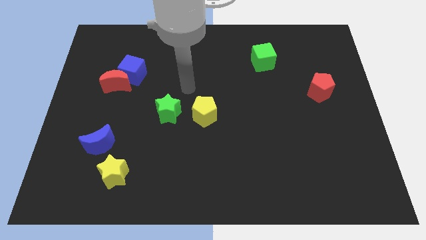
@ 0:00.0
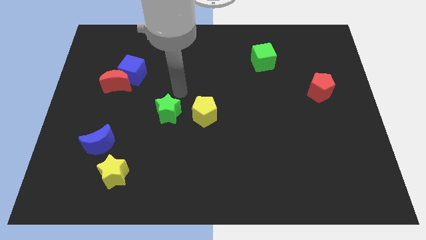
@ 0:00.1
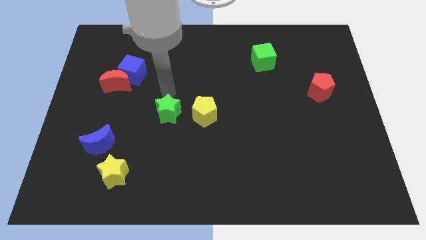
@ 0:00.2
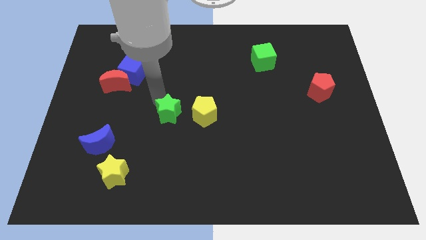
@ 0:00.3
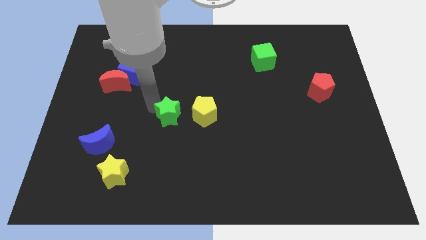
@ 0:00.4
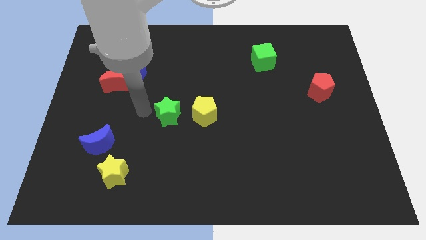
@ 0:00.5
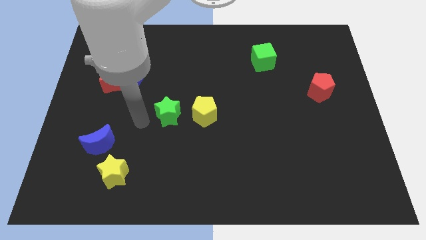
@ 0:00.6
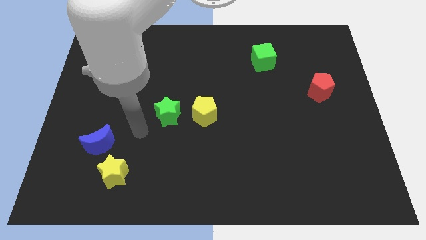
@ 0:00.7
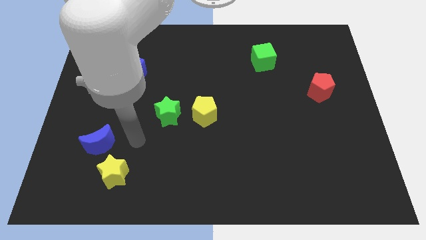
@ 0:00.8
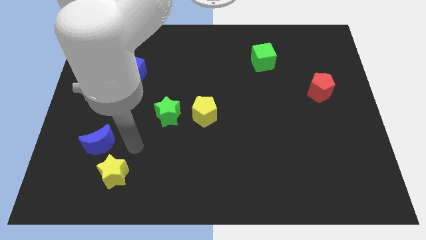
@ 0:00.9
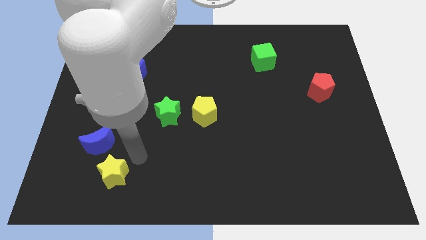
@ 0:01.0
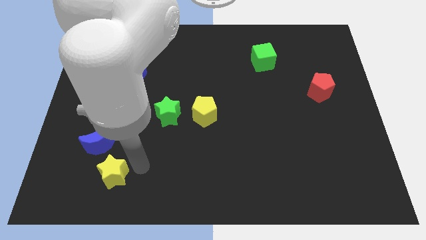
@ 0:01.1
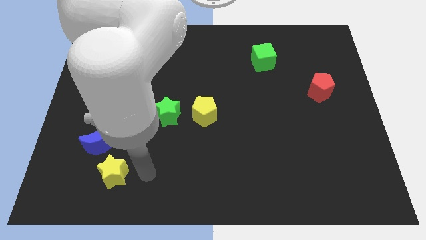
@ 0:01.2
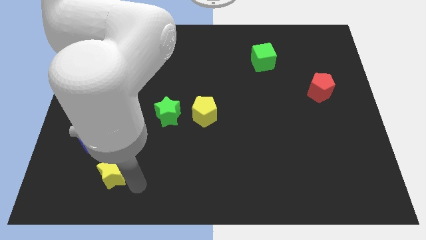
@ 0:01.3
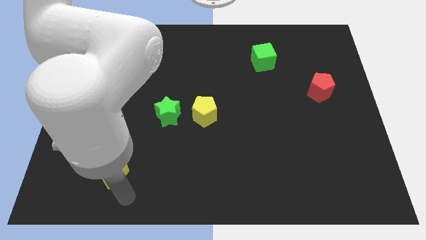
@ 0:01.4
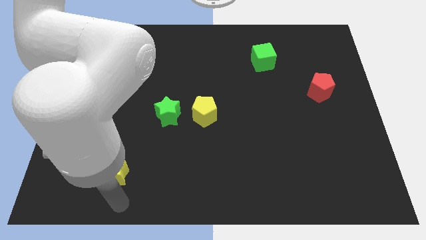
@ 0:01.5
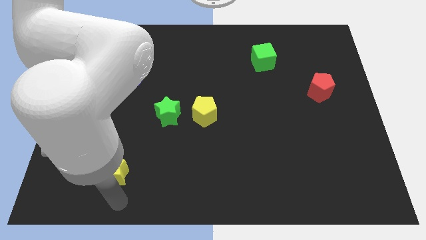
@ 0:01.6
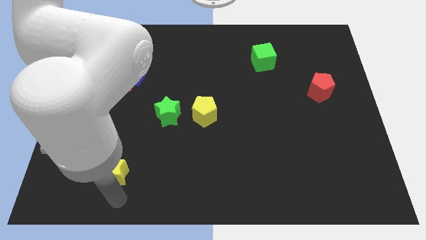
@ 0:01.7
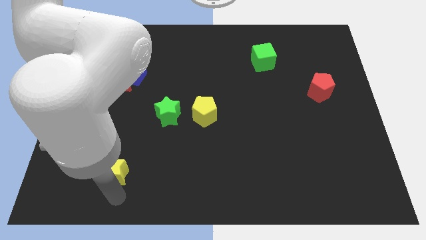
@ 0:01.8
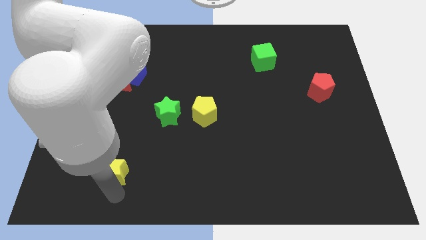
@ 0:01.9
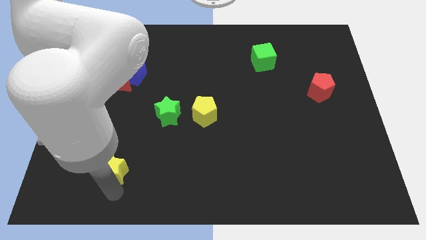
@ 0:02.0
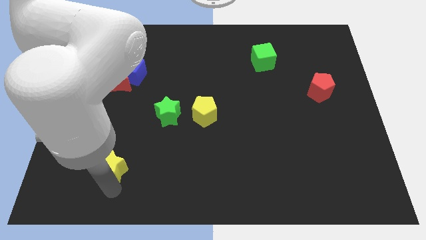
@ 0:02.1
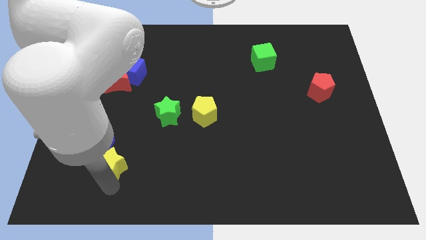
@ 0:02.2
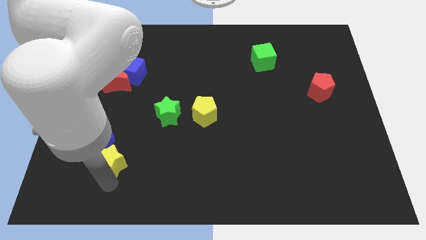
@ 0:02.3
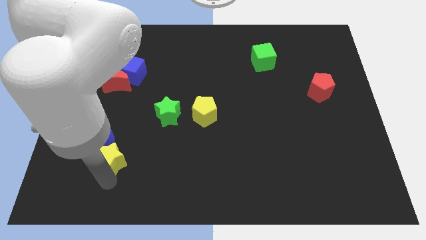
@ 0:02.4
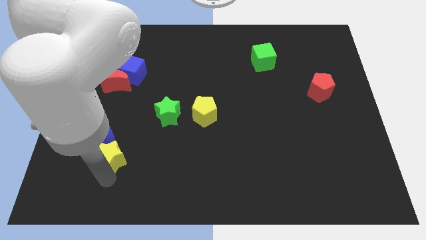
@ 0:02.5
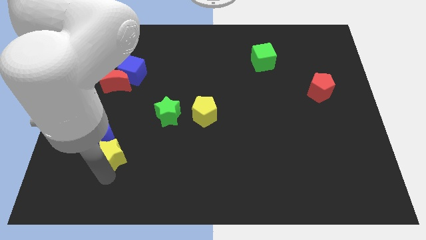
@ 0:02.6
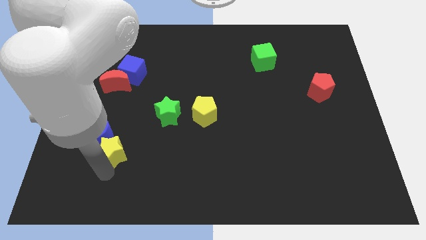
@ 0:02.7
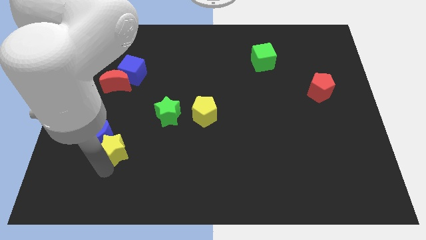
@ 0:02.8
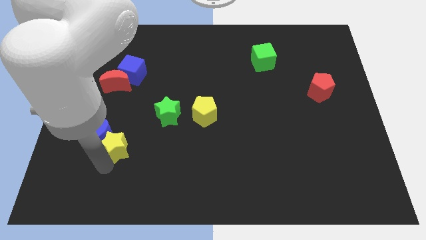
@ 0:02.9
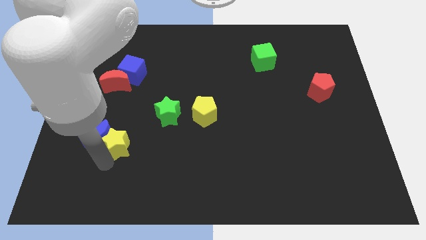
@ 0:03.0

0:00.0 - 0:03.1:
push the yellow star up somewhat

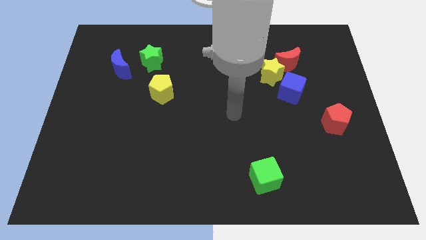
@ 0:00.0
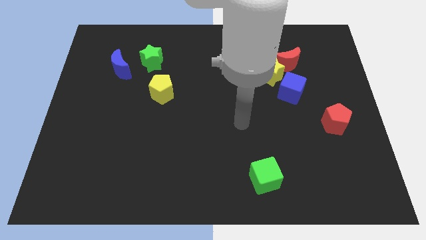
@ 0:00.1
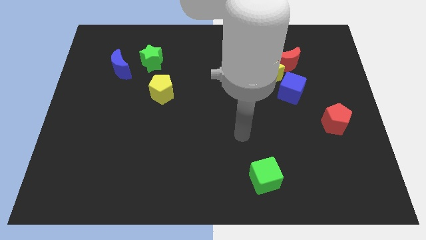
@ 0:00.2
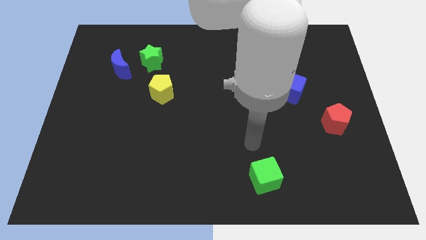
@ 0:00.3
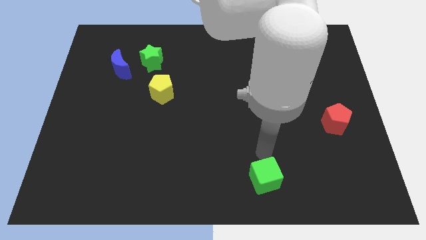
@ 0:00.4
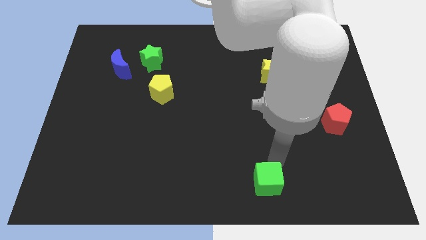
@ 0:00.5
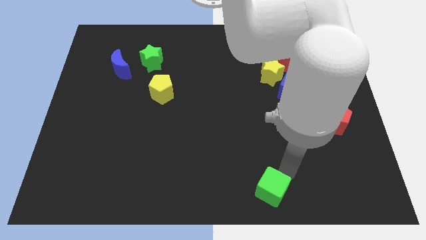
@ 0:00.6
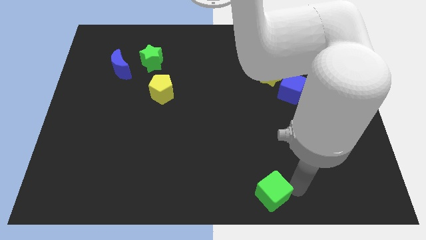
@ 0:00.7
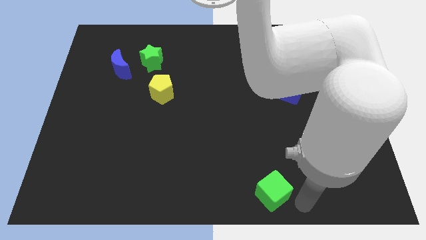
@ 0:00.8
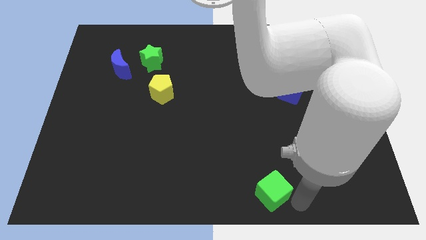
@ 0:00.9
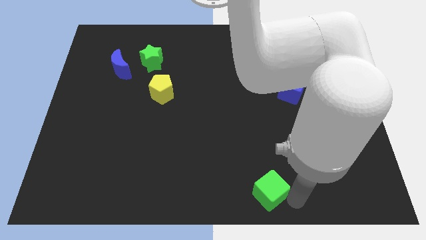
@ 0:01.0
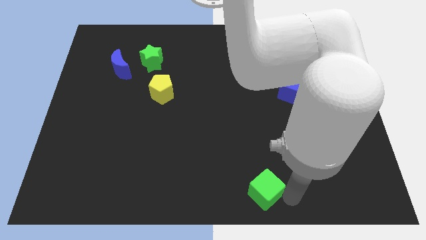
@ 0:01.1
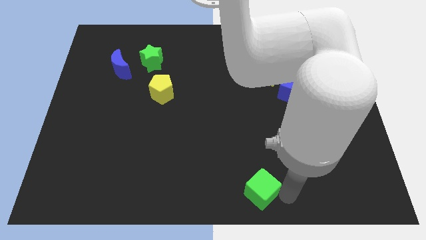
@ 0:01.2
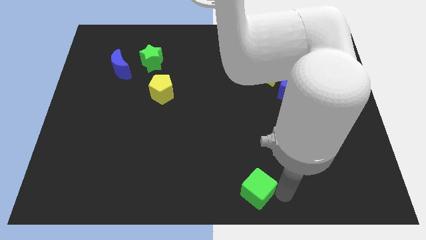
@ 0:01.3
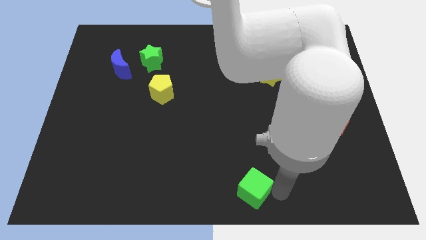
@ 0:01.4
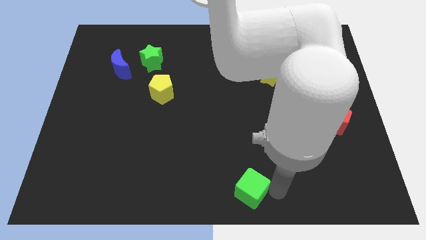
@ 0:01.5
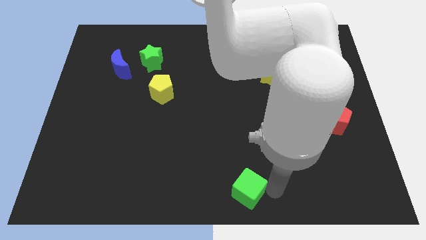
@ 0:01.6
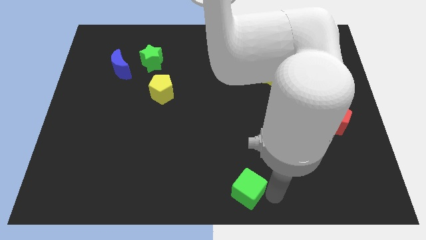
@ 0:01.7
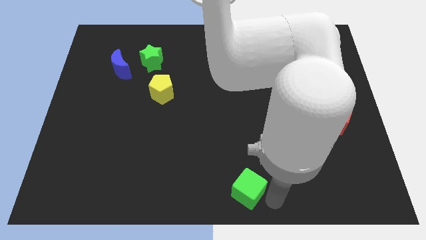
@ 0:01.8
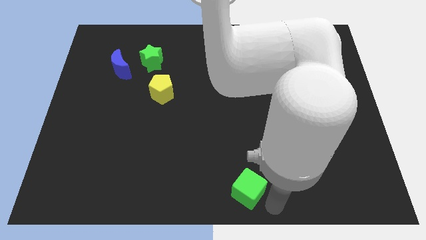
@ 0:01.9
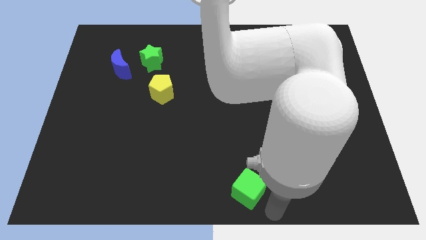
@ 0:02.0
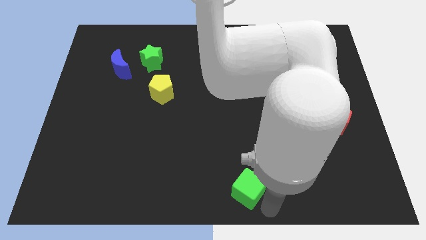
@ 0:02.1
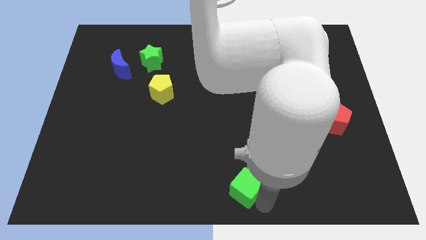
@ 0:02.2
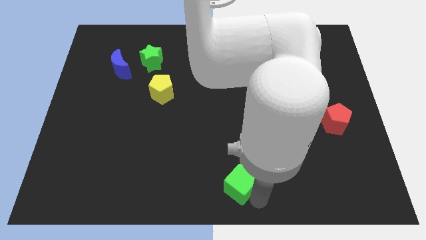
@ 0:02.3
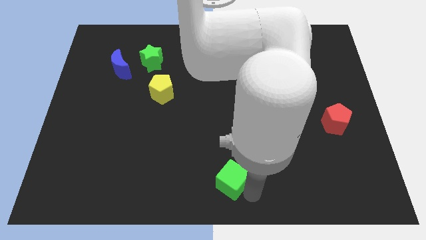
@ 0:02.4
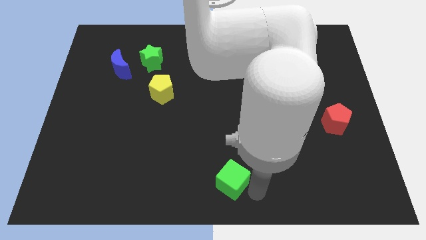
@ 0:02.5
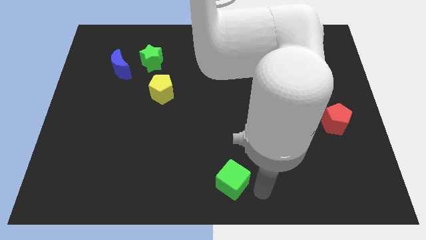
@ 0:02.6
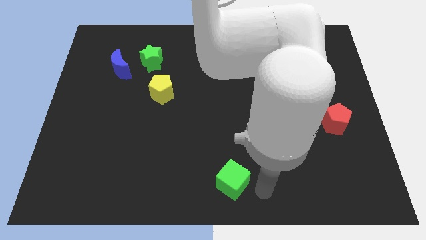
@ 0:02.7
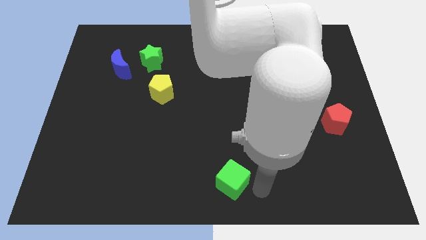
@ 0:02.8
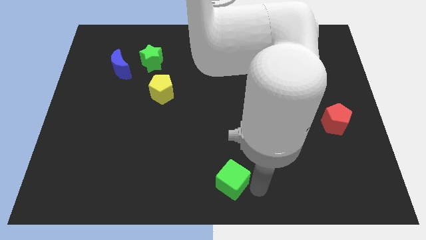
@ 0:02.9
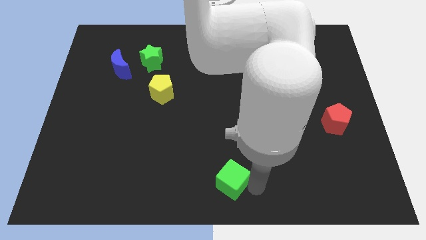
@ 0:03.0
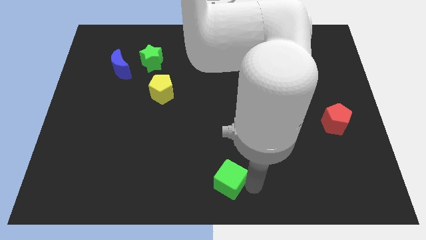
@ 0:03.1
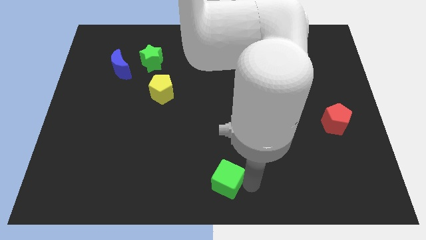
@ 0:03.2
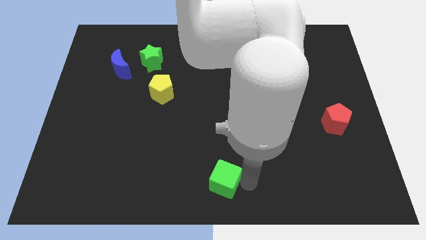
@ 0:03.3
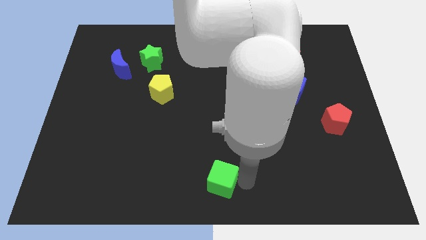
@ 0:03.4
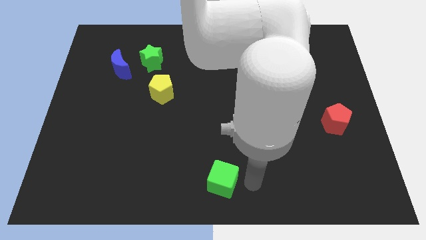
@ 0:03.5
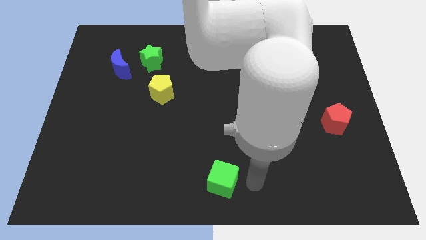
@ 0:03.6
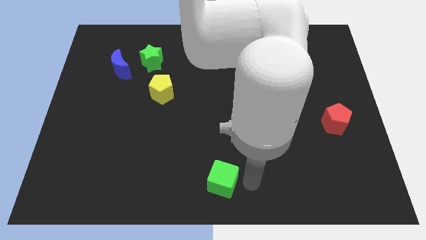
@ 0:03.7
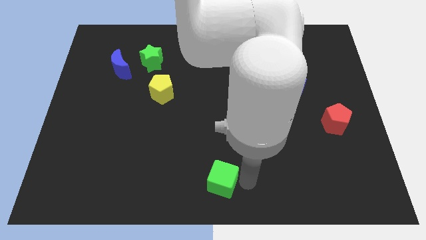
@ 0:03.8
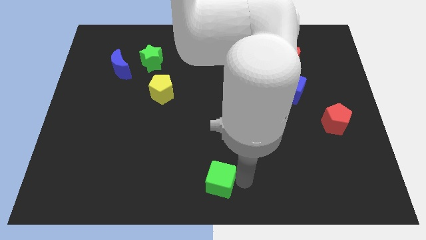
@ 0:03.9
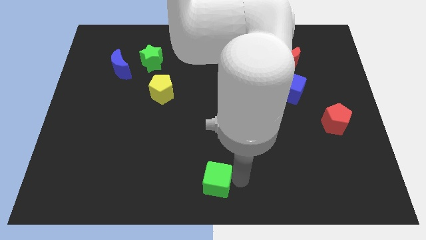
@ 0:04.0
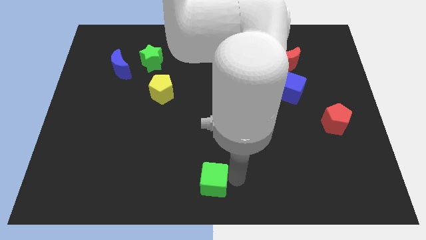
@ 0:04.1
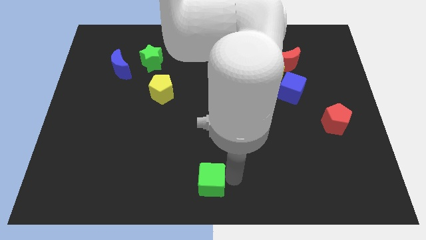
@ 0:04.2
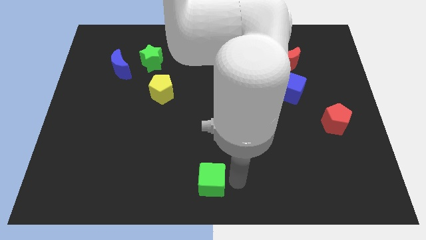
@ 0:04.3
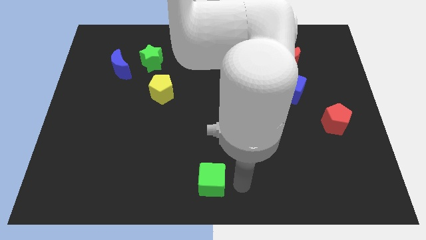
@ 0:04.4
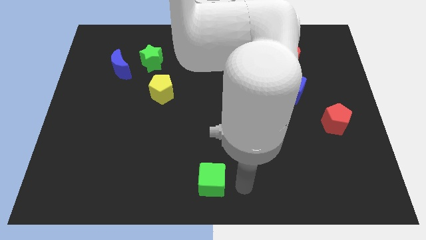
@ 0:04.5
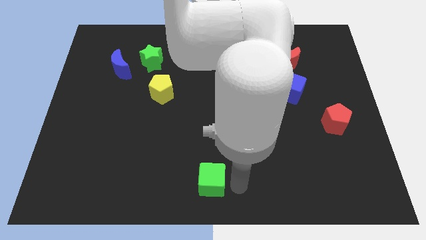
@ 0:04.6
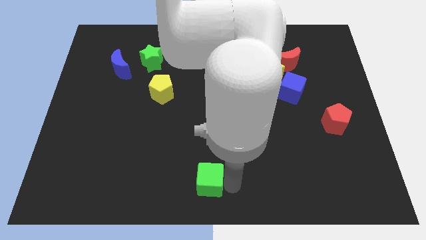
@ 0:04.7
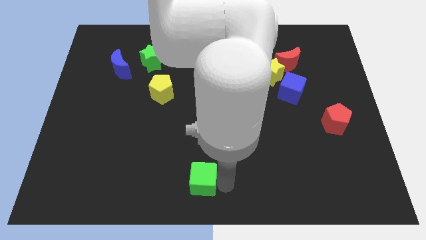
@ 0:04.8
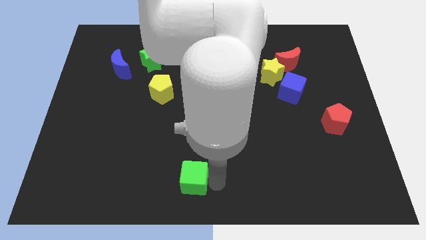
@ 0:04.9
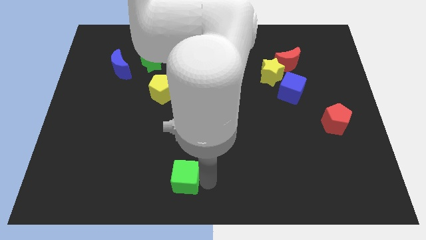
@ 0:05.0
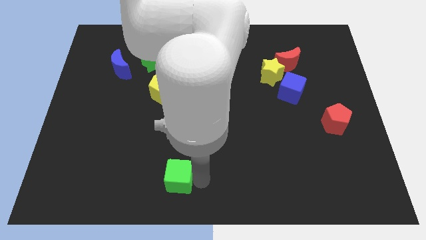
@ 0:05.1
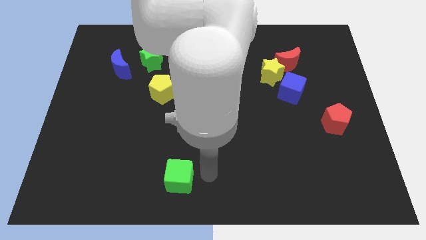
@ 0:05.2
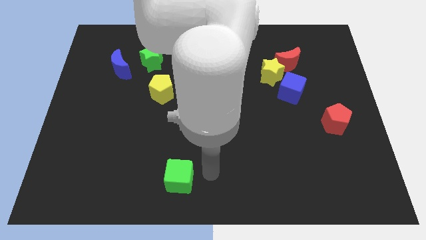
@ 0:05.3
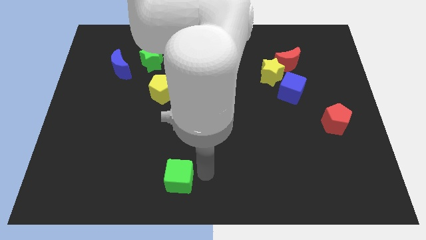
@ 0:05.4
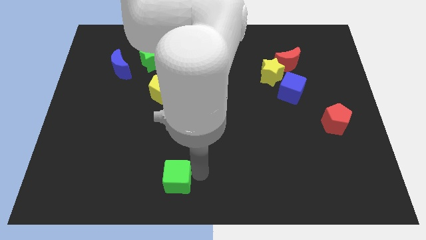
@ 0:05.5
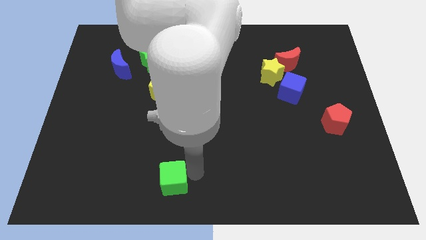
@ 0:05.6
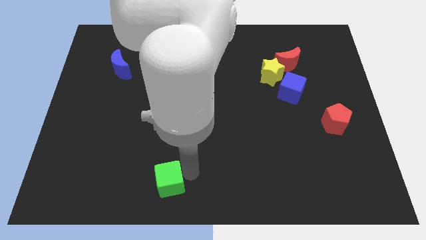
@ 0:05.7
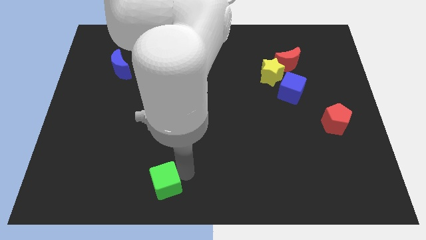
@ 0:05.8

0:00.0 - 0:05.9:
push the green cube to the left
